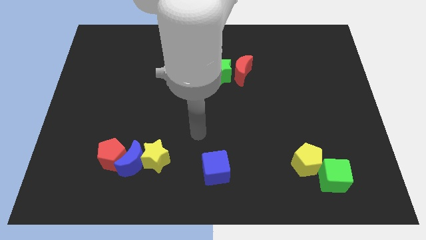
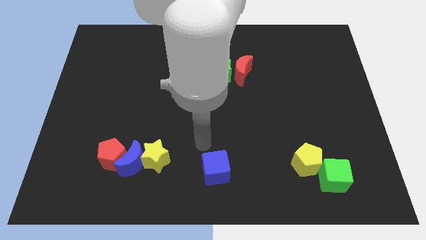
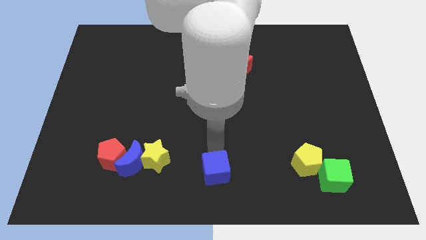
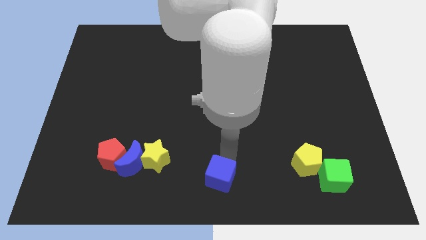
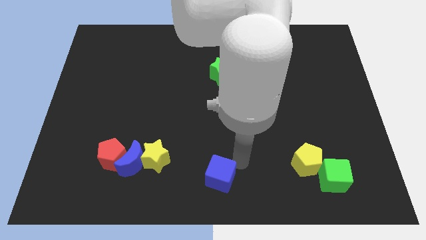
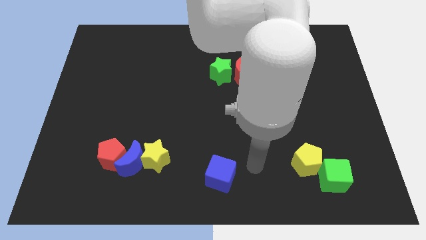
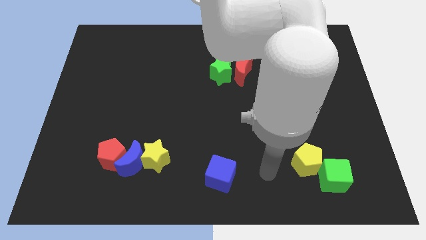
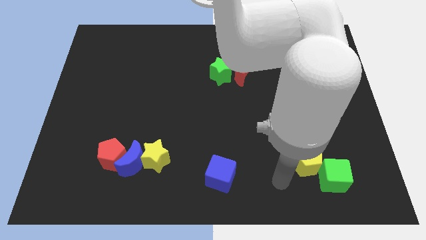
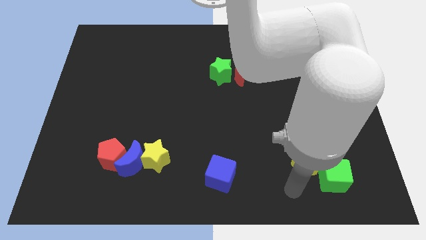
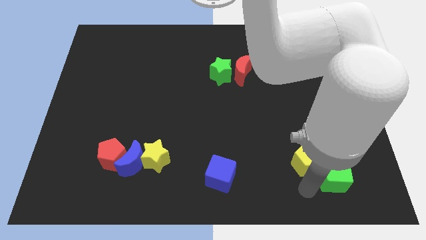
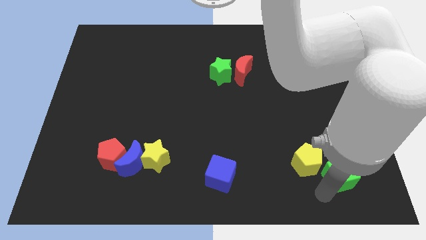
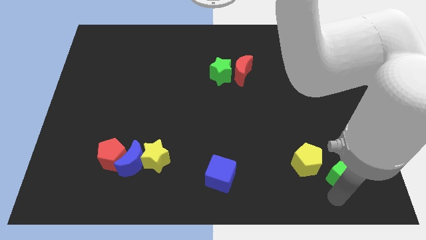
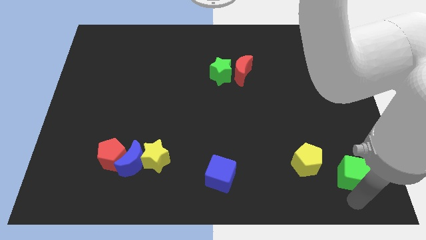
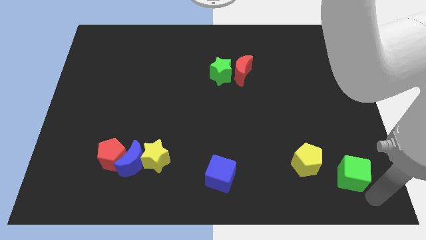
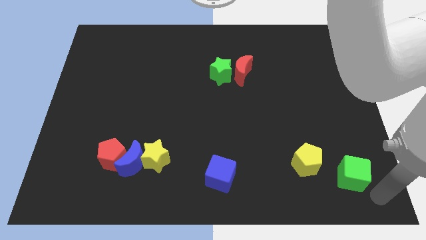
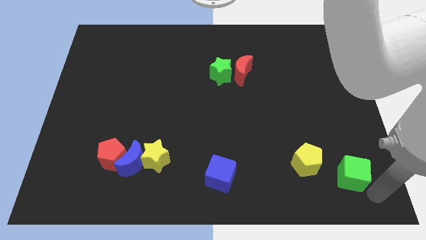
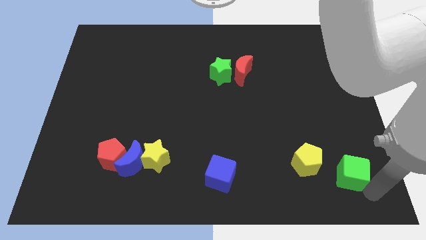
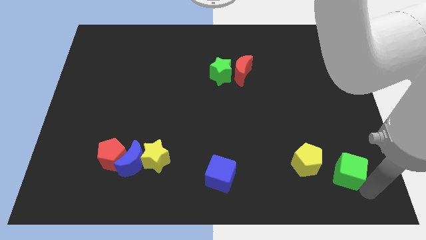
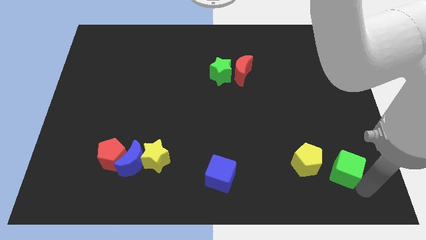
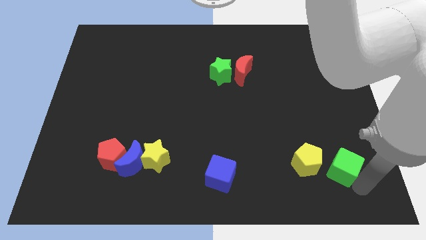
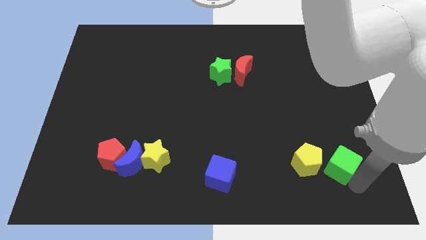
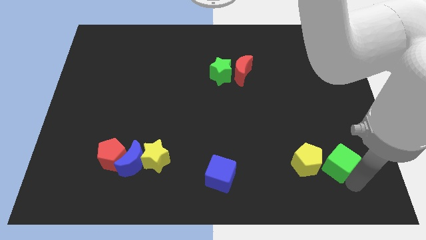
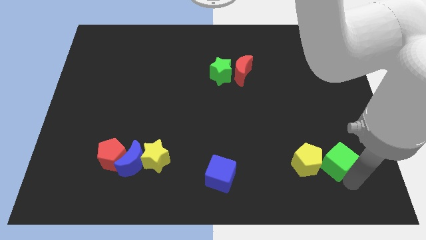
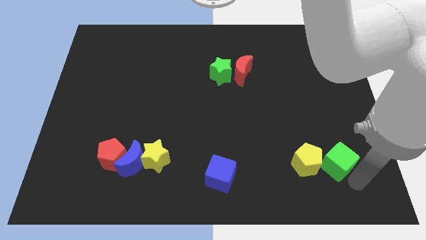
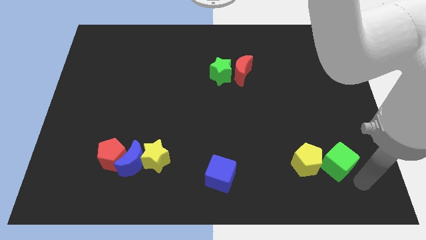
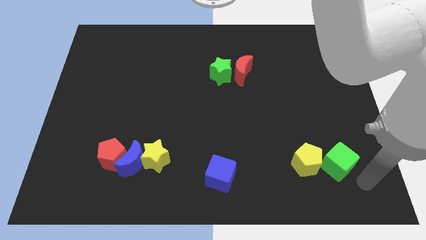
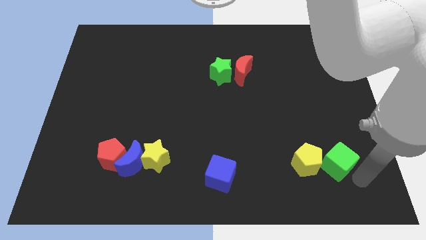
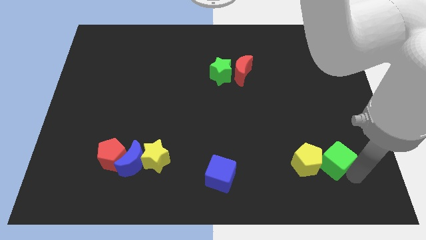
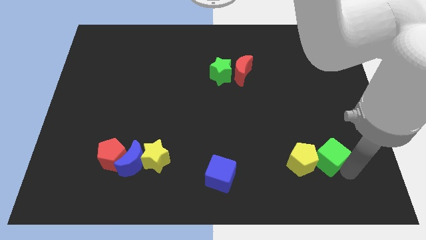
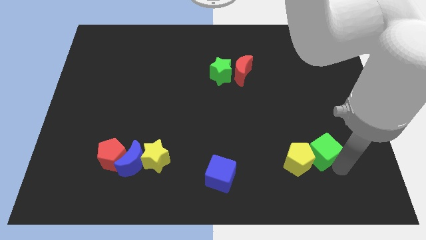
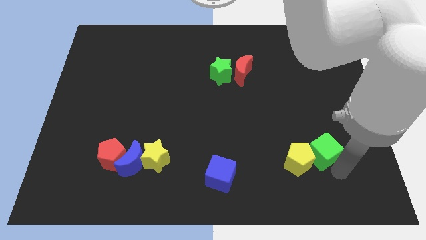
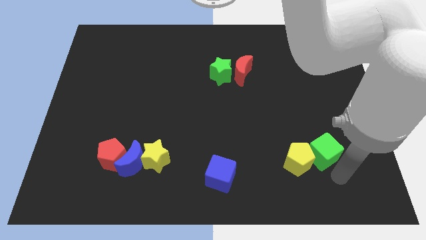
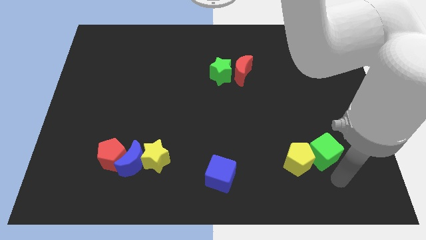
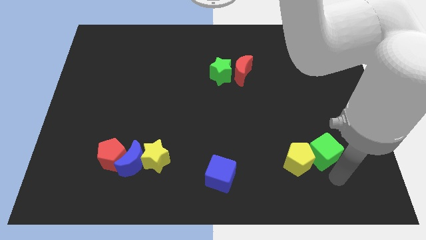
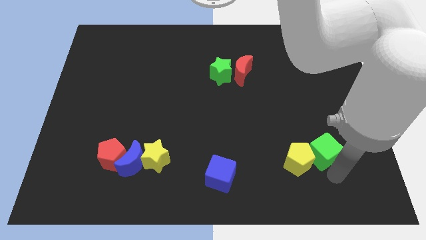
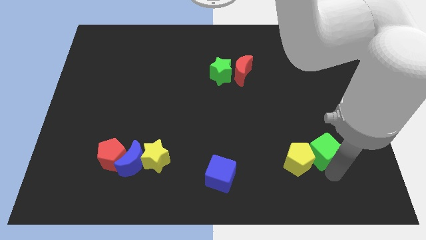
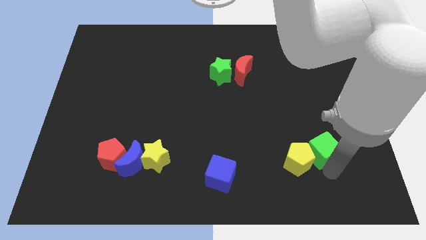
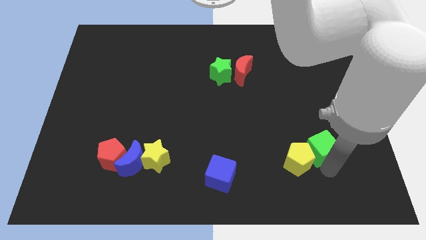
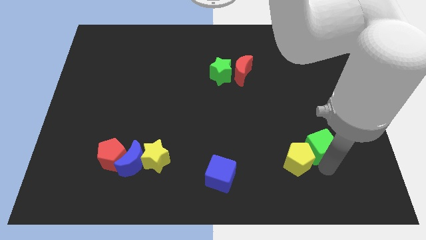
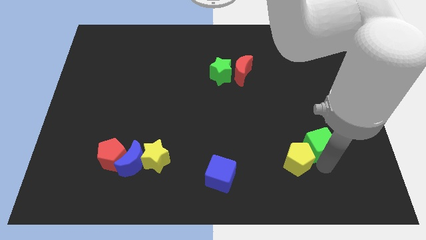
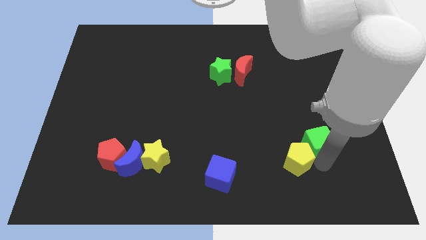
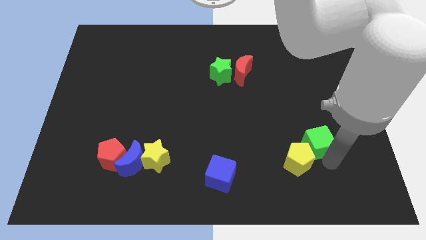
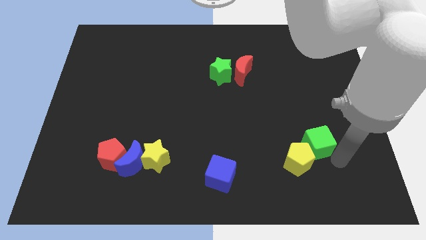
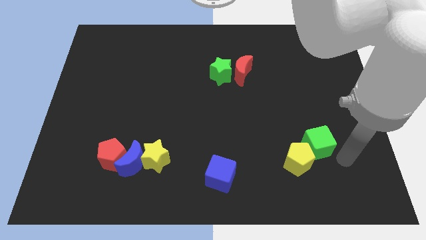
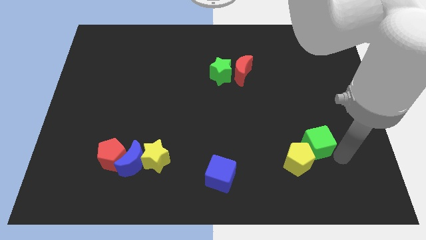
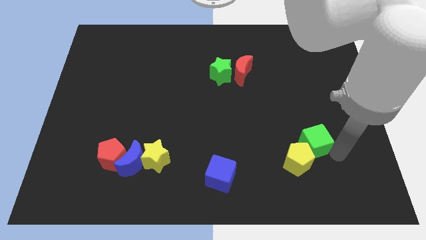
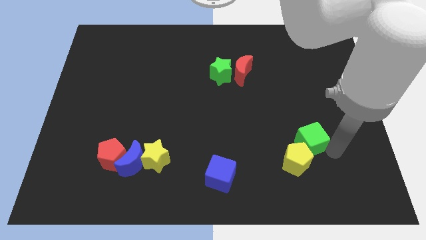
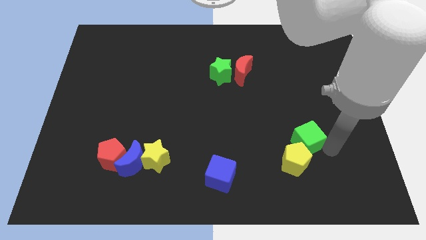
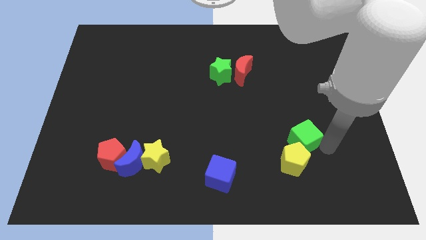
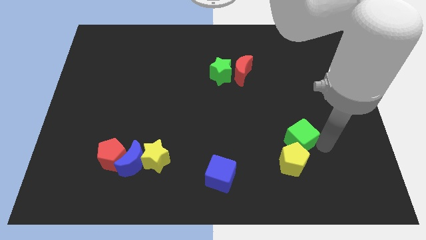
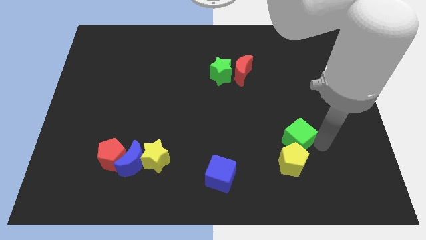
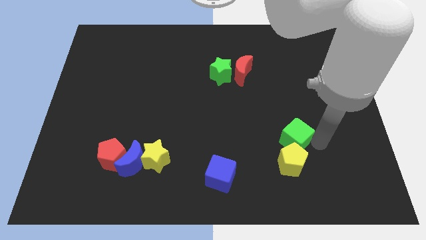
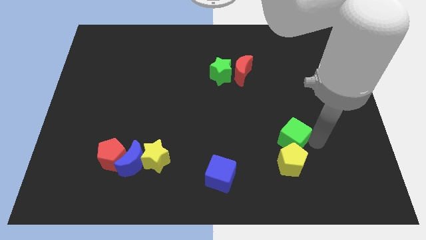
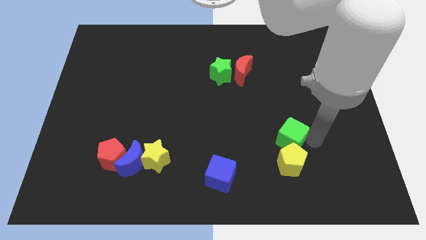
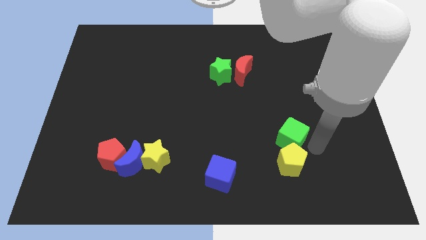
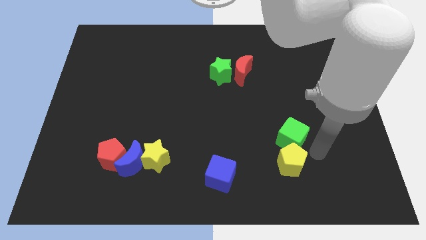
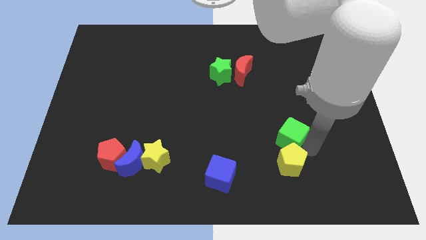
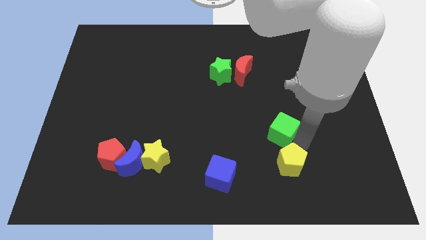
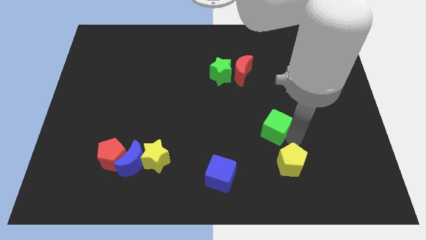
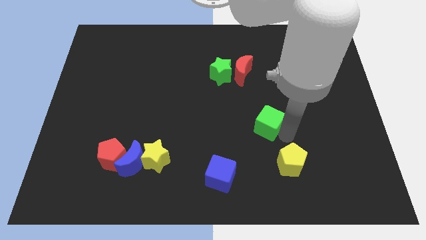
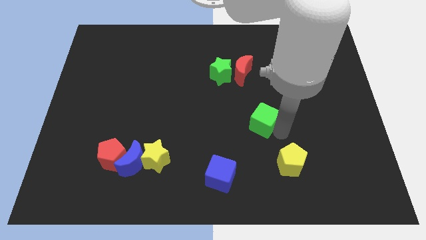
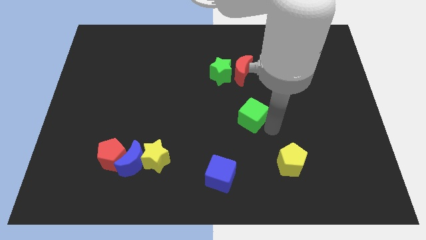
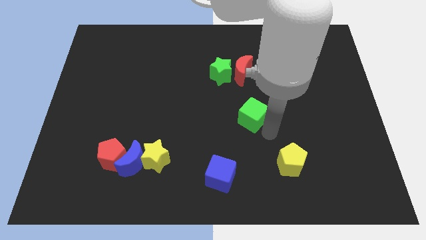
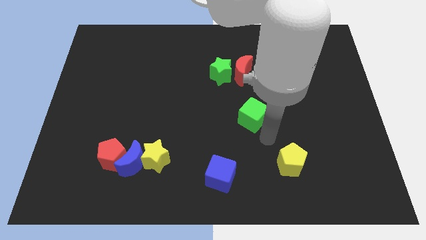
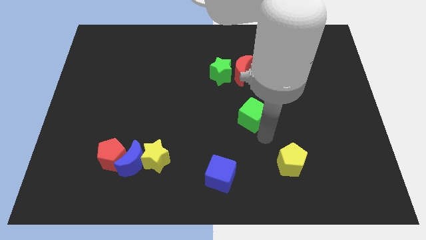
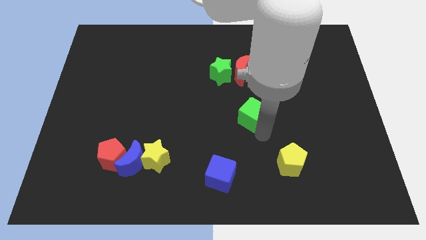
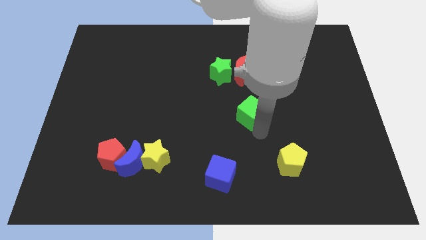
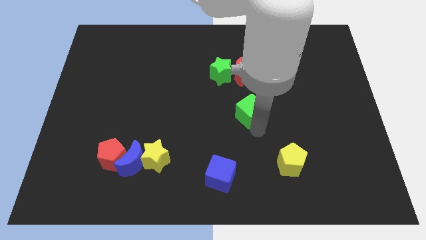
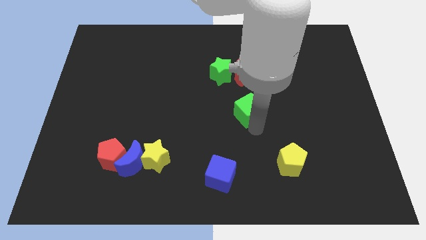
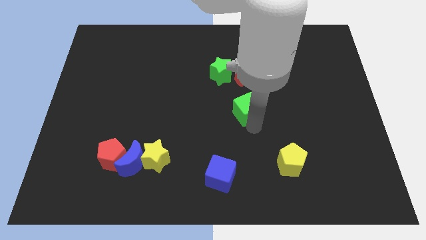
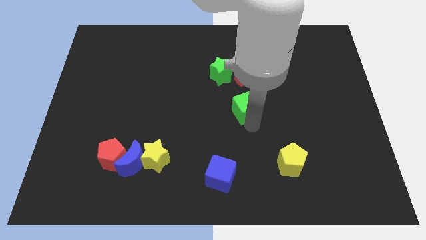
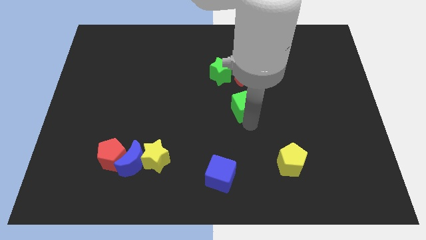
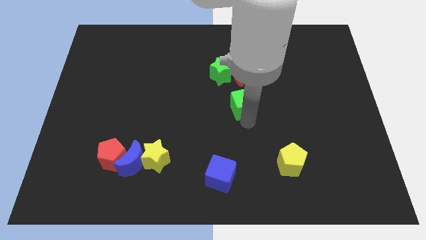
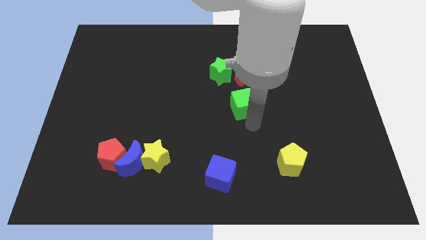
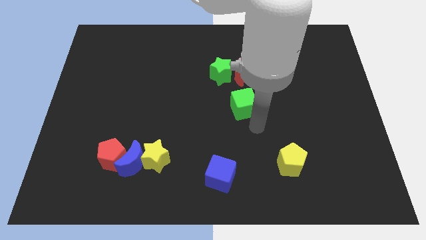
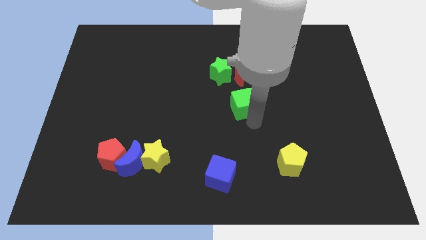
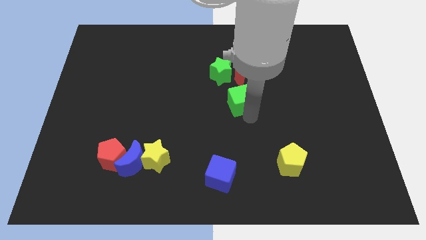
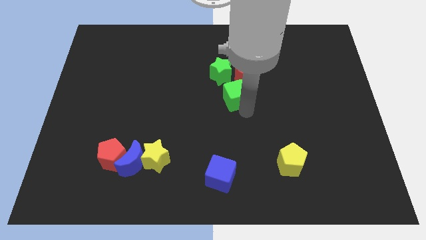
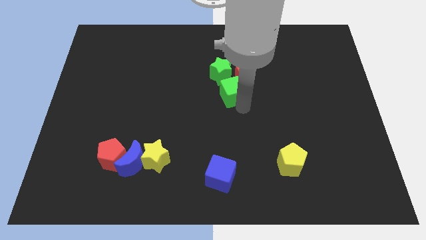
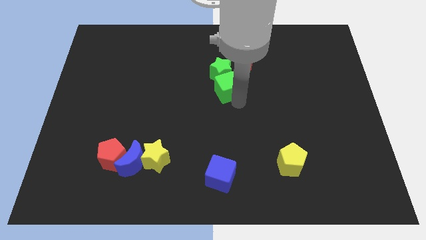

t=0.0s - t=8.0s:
push the green cube close to the green star
